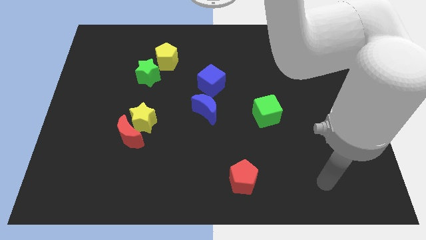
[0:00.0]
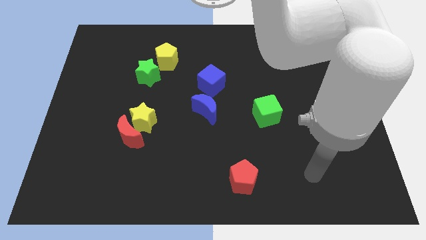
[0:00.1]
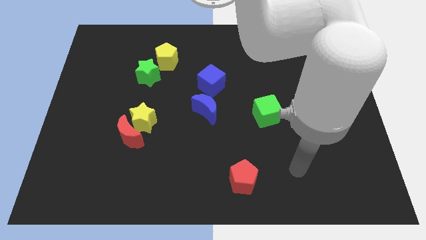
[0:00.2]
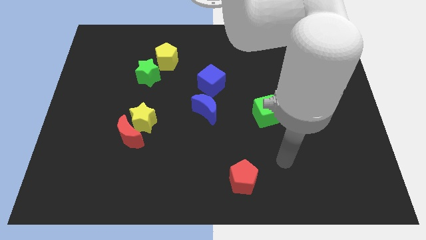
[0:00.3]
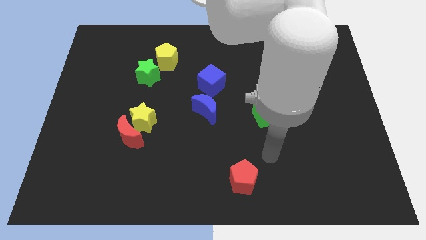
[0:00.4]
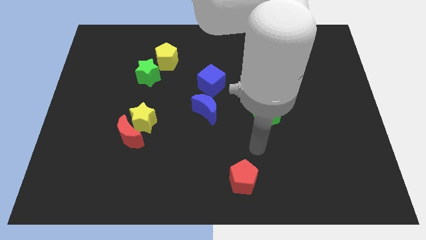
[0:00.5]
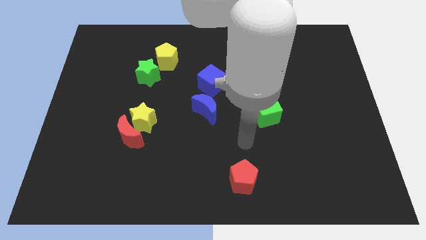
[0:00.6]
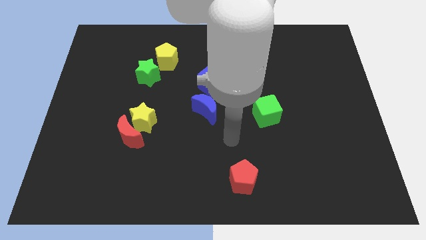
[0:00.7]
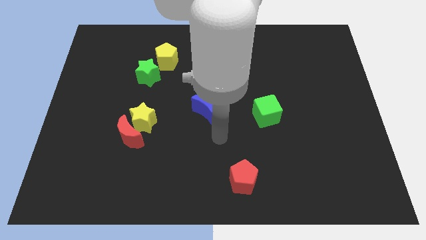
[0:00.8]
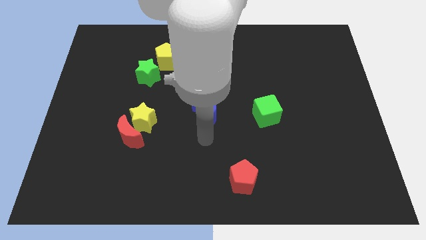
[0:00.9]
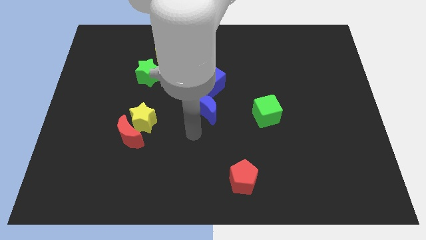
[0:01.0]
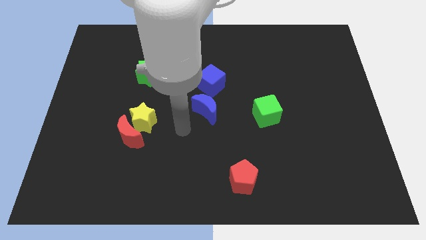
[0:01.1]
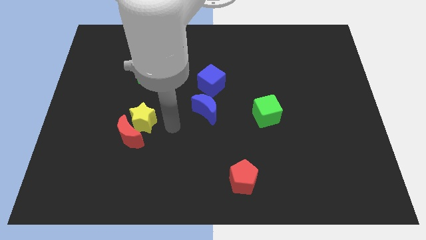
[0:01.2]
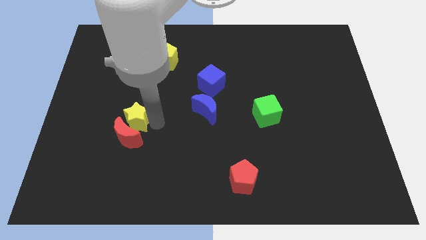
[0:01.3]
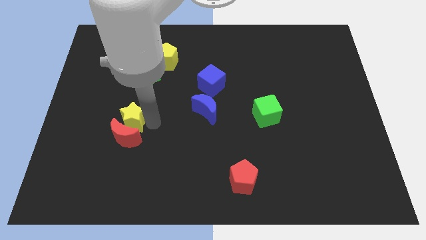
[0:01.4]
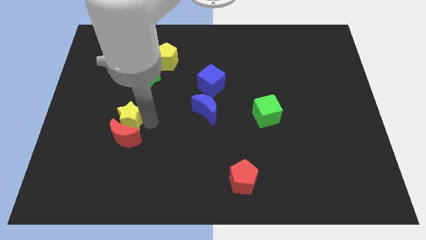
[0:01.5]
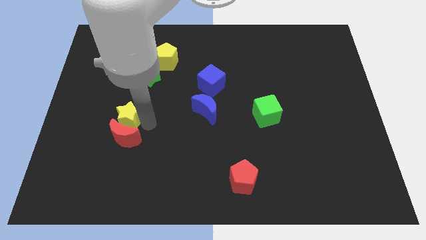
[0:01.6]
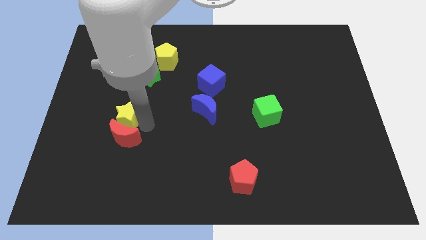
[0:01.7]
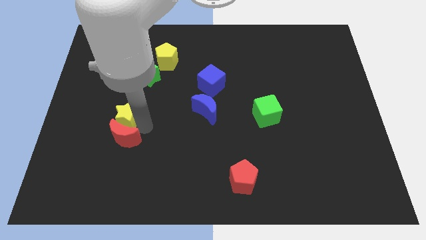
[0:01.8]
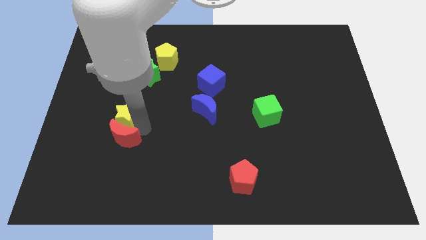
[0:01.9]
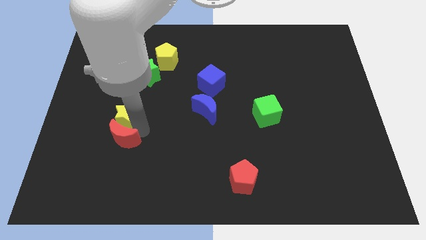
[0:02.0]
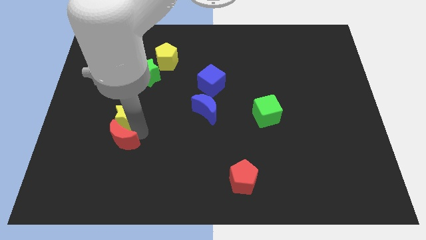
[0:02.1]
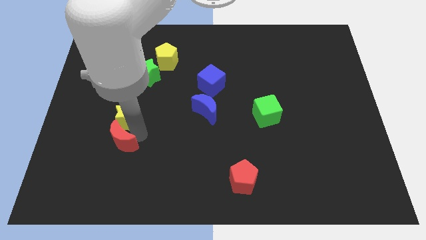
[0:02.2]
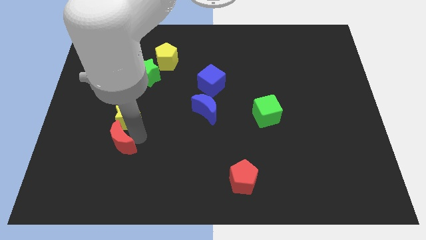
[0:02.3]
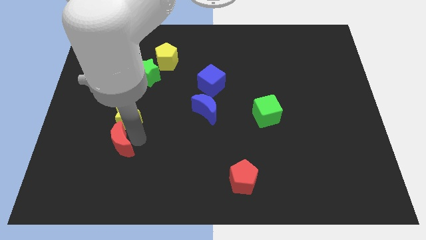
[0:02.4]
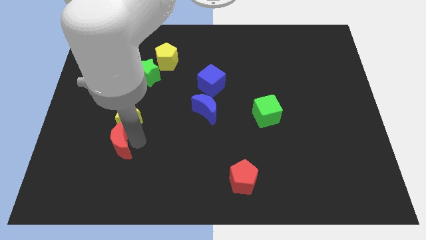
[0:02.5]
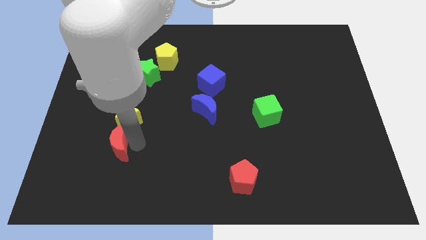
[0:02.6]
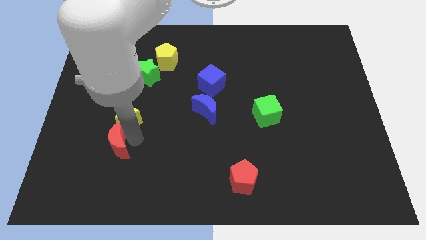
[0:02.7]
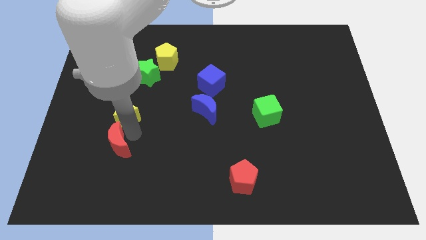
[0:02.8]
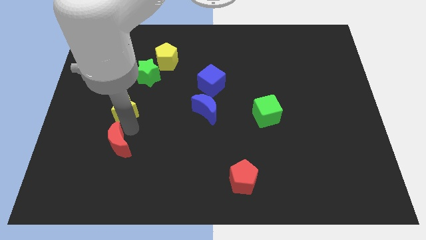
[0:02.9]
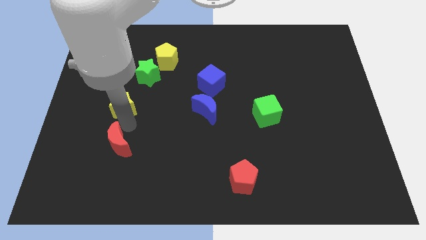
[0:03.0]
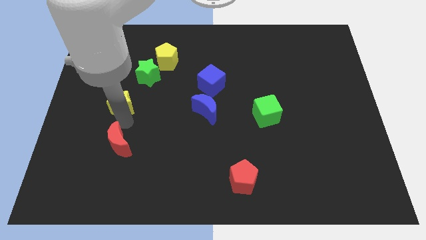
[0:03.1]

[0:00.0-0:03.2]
separate the red moon from the yellow star

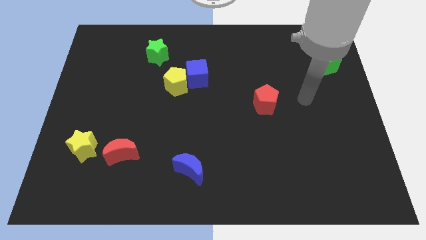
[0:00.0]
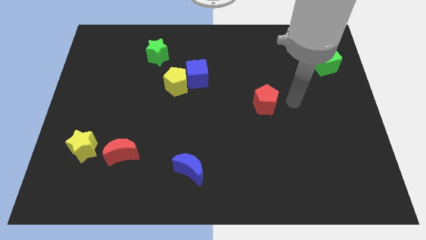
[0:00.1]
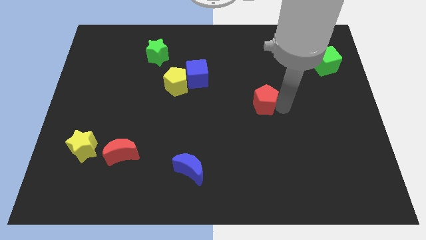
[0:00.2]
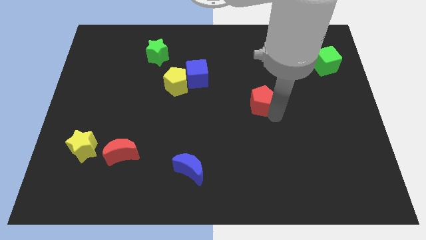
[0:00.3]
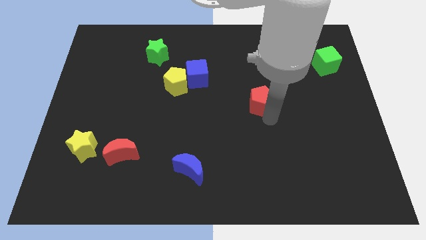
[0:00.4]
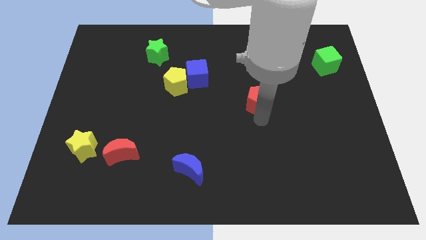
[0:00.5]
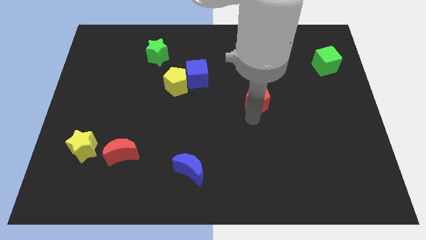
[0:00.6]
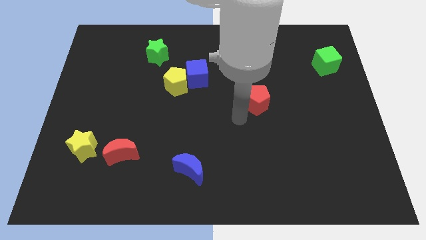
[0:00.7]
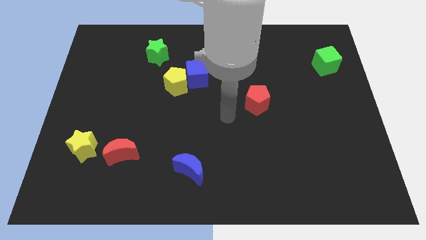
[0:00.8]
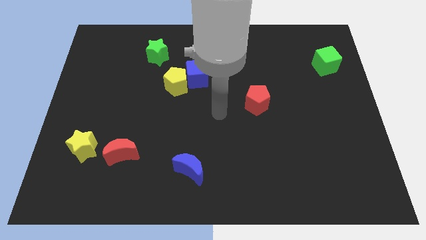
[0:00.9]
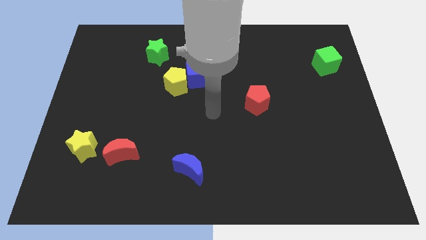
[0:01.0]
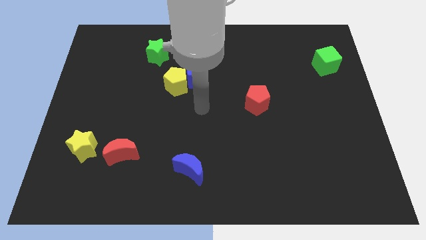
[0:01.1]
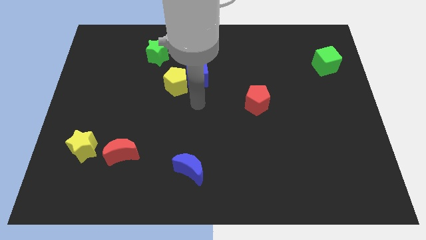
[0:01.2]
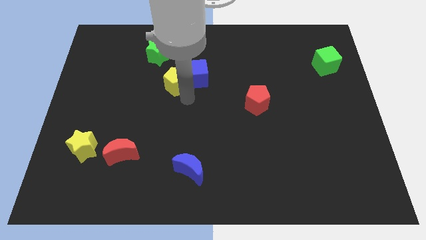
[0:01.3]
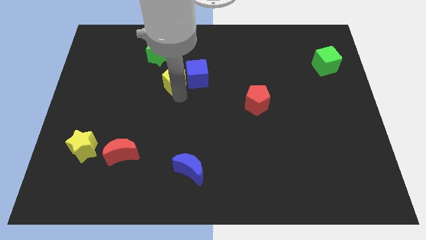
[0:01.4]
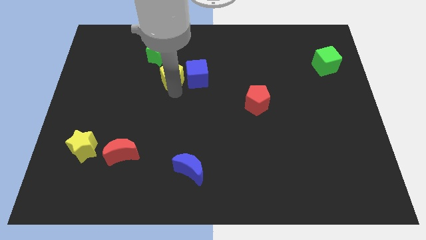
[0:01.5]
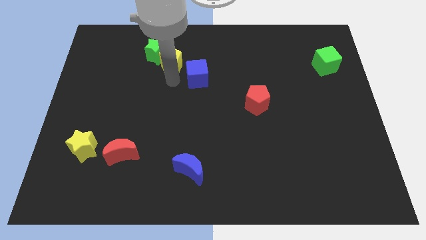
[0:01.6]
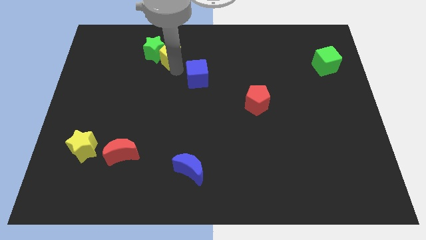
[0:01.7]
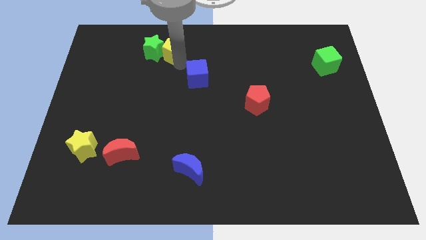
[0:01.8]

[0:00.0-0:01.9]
move the blue cube away from the yellow pentagon

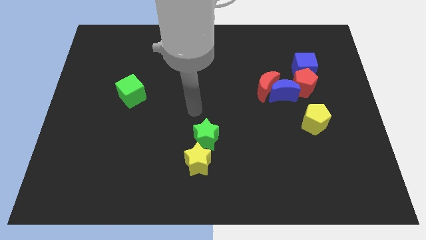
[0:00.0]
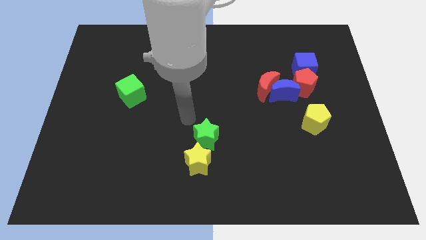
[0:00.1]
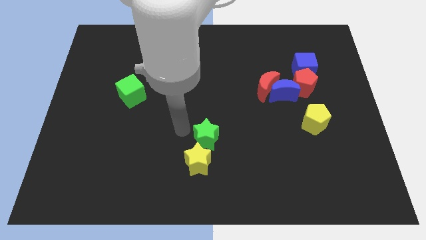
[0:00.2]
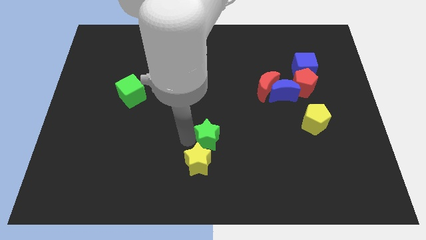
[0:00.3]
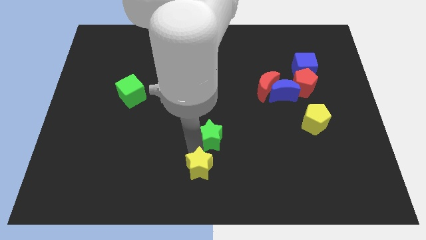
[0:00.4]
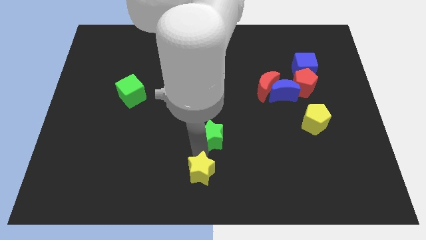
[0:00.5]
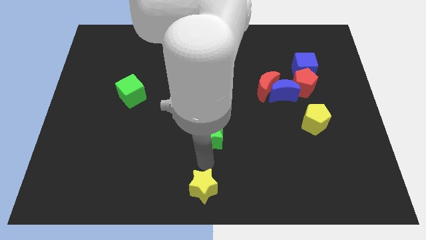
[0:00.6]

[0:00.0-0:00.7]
separate the green star from the yellow star

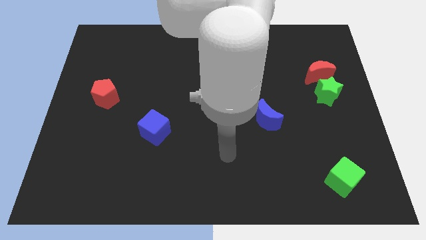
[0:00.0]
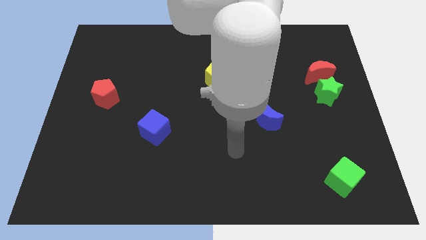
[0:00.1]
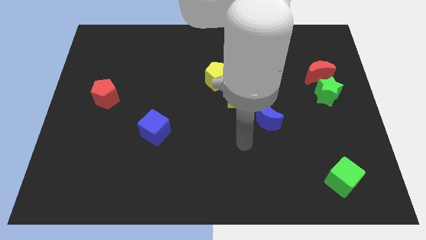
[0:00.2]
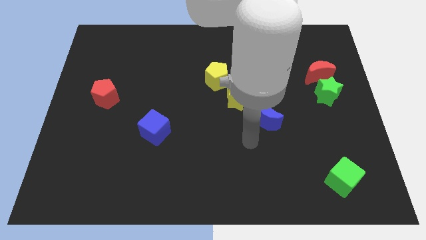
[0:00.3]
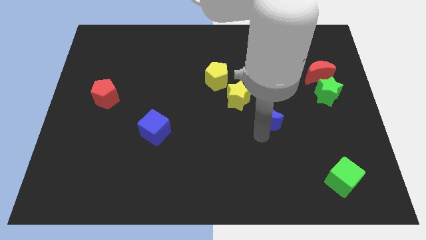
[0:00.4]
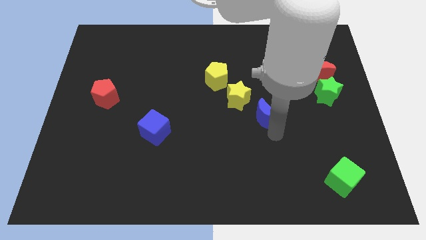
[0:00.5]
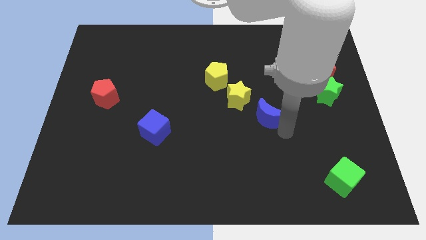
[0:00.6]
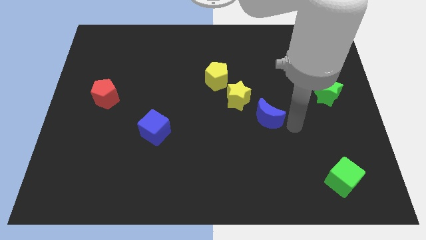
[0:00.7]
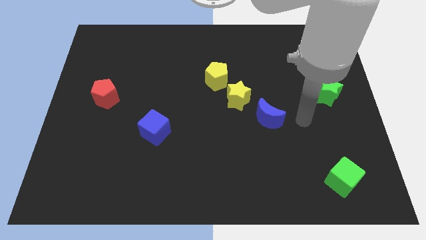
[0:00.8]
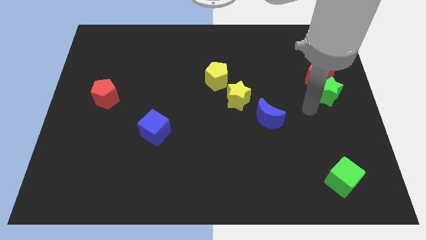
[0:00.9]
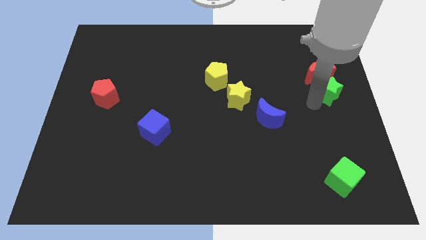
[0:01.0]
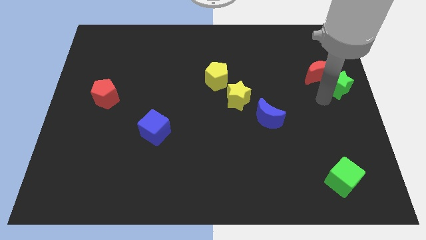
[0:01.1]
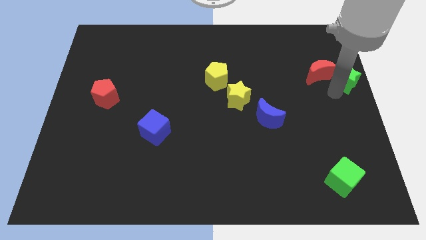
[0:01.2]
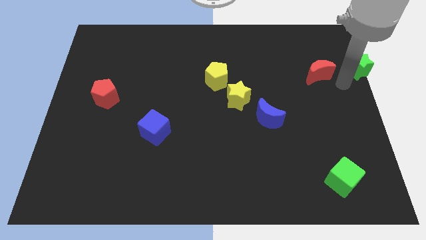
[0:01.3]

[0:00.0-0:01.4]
separate the red moon from the green star

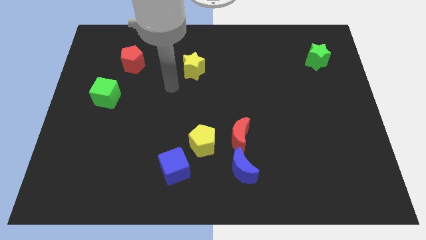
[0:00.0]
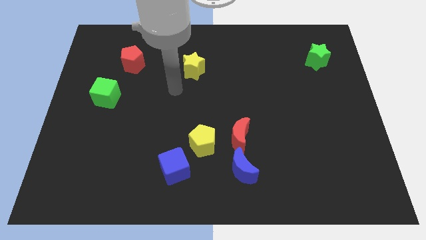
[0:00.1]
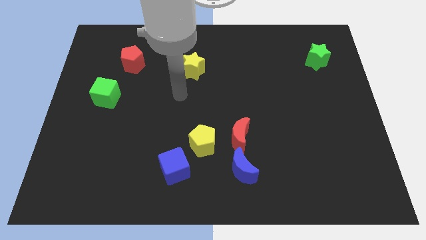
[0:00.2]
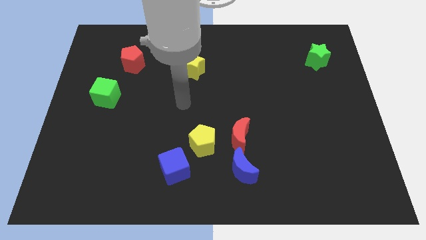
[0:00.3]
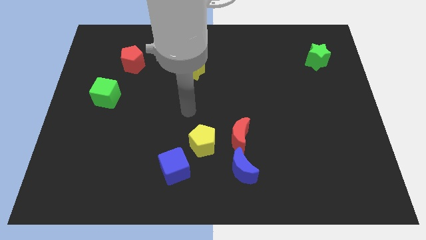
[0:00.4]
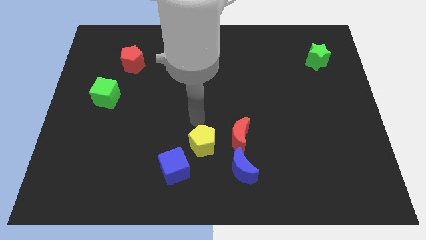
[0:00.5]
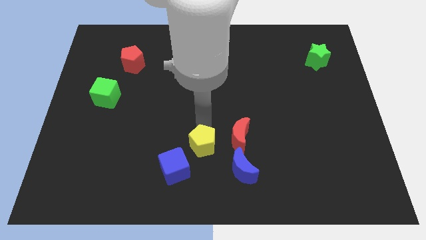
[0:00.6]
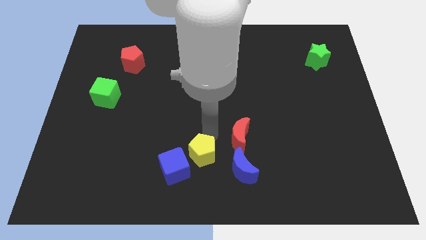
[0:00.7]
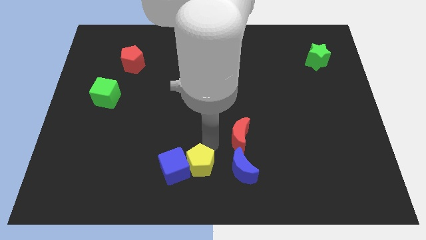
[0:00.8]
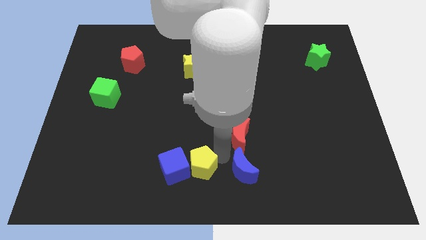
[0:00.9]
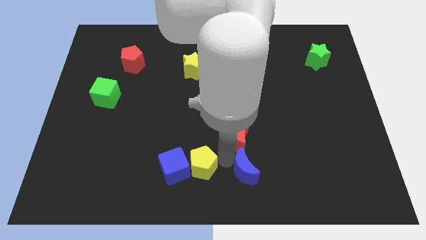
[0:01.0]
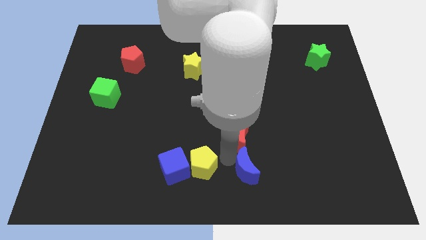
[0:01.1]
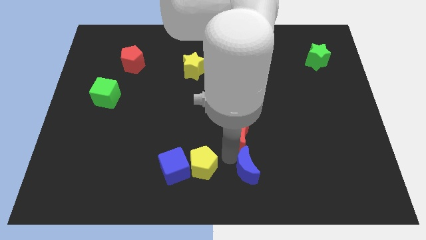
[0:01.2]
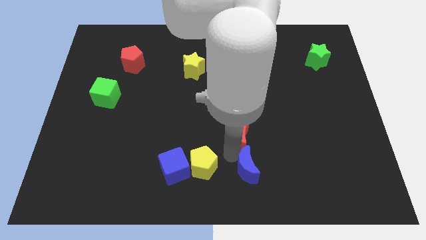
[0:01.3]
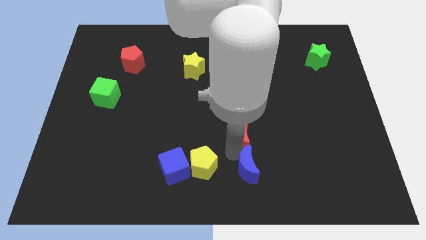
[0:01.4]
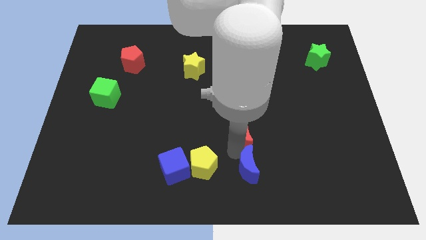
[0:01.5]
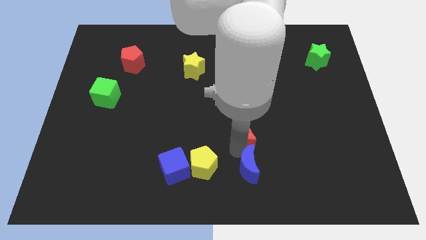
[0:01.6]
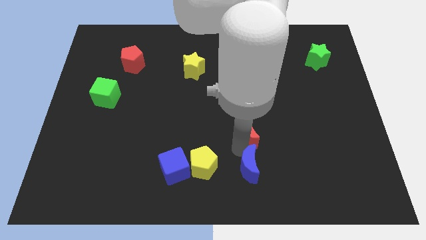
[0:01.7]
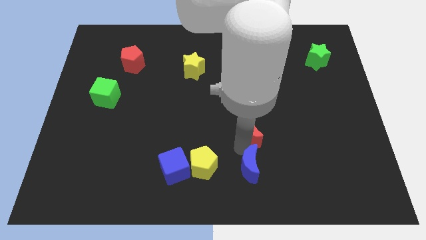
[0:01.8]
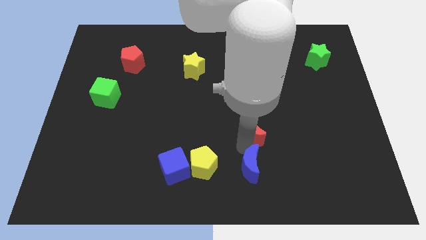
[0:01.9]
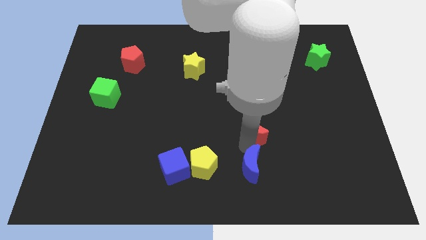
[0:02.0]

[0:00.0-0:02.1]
pull the red moon apart from the blue moon and yellow pentagon

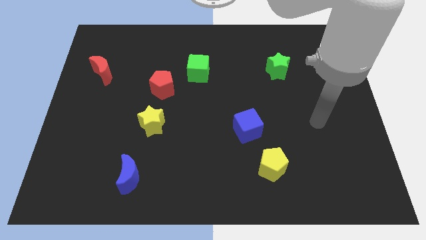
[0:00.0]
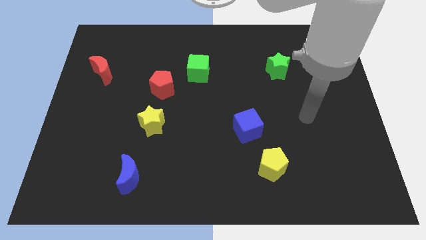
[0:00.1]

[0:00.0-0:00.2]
pull the red pentagon apart from the green cube
